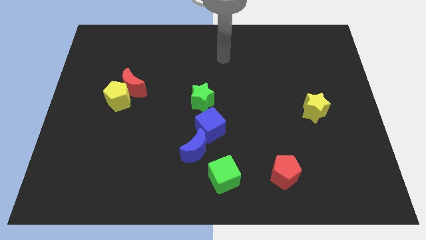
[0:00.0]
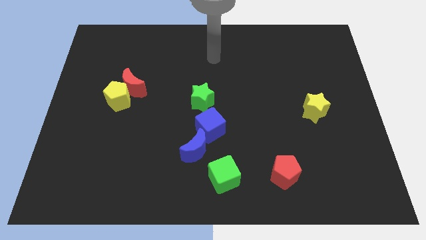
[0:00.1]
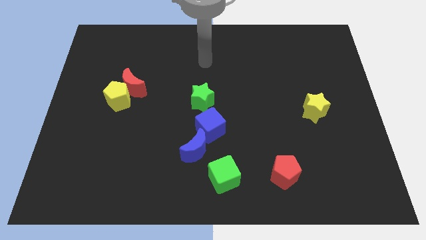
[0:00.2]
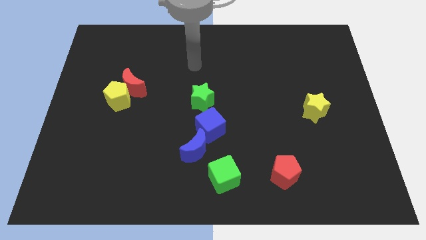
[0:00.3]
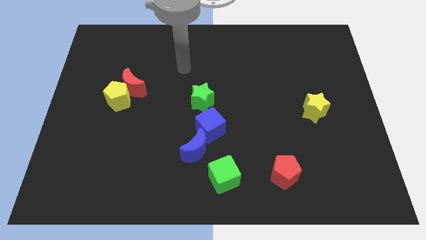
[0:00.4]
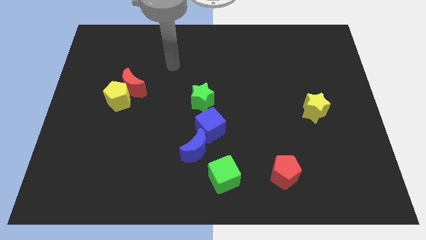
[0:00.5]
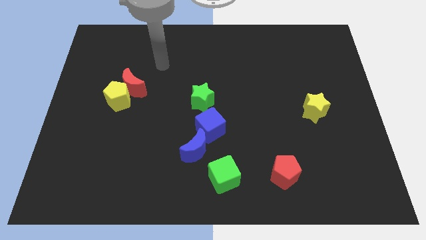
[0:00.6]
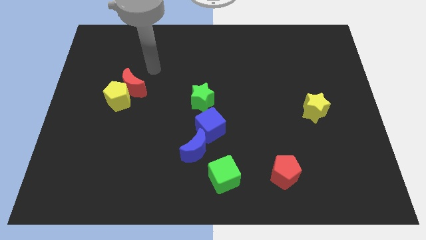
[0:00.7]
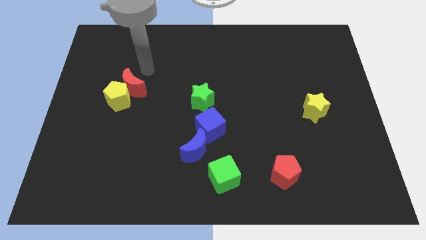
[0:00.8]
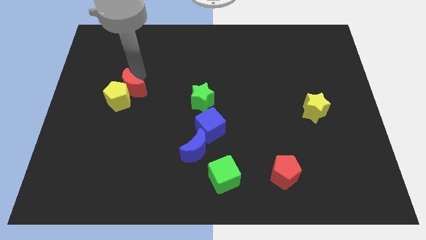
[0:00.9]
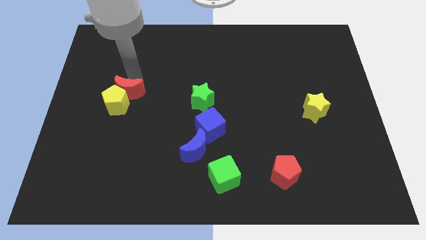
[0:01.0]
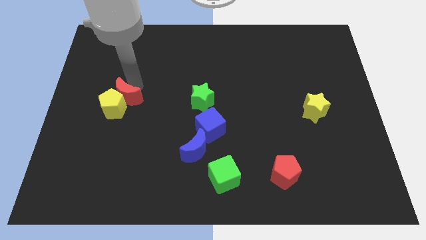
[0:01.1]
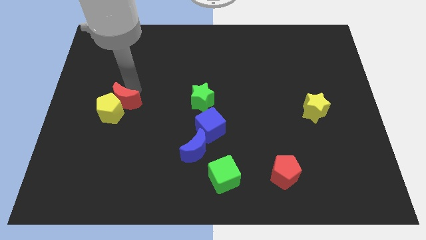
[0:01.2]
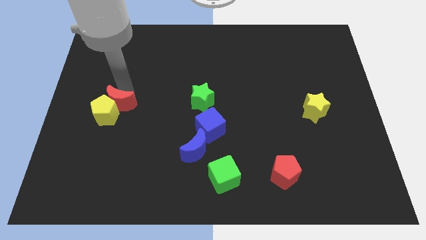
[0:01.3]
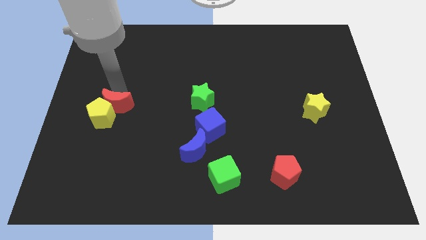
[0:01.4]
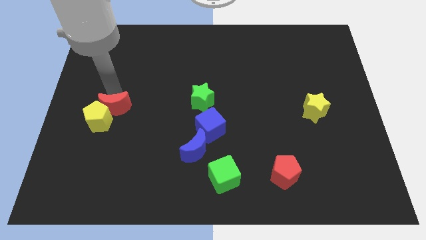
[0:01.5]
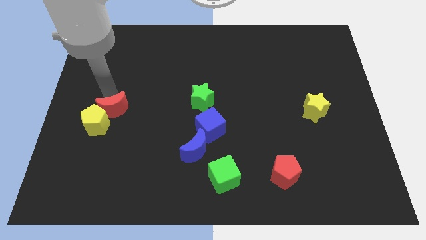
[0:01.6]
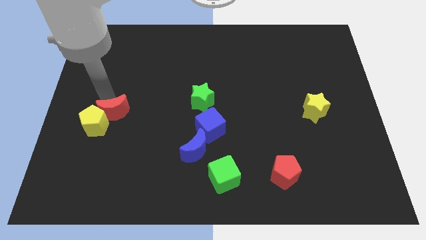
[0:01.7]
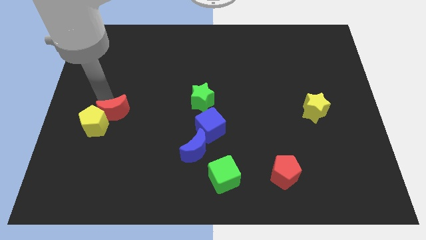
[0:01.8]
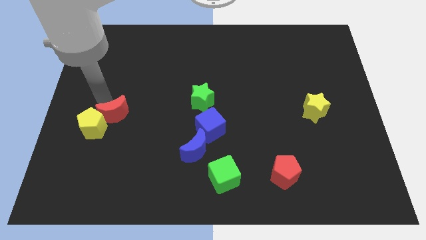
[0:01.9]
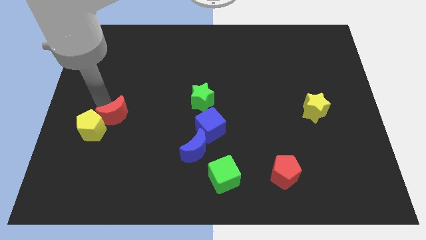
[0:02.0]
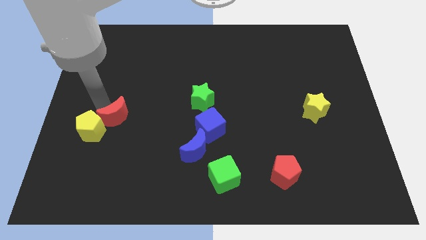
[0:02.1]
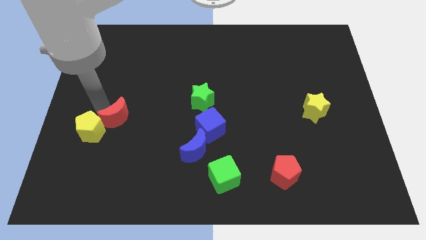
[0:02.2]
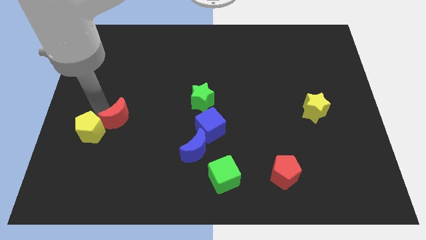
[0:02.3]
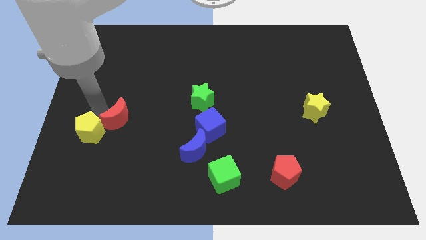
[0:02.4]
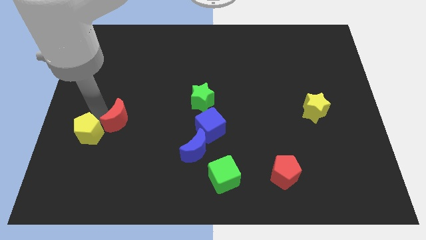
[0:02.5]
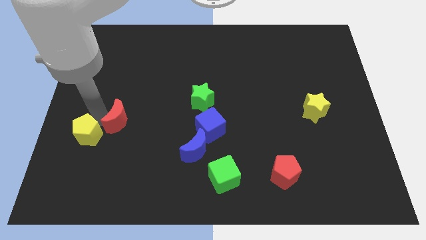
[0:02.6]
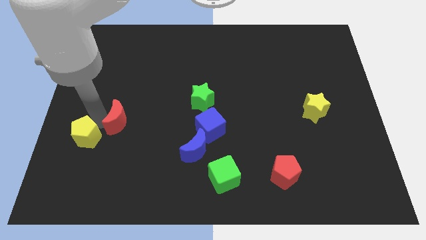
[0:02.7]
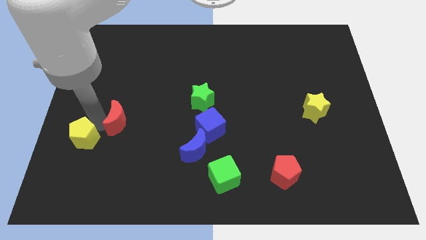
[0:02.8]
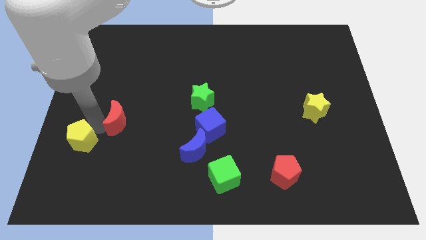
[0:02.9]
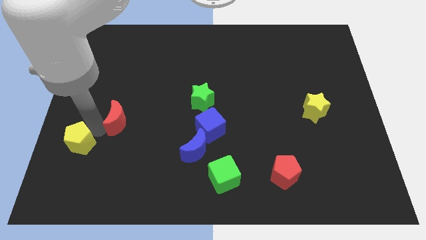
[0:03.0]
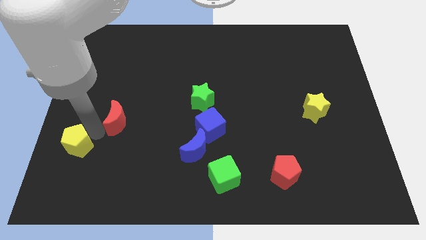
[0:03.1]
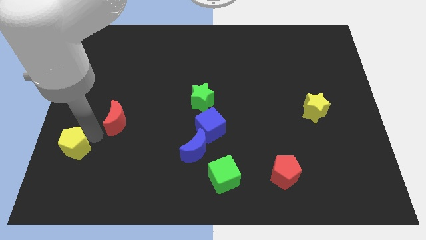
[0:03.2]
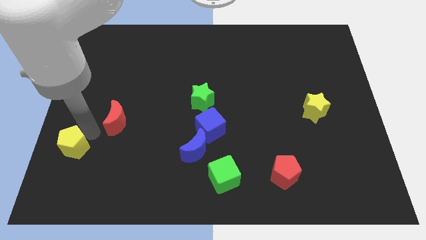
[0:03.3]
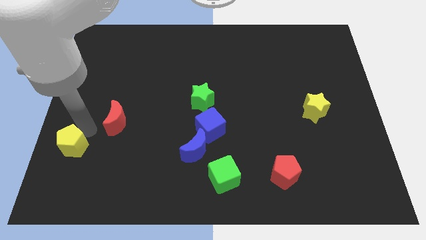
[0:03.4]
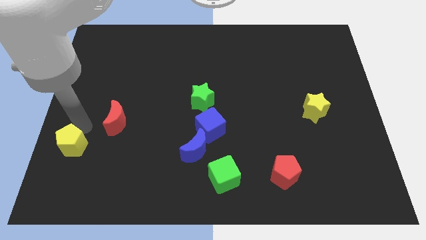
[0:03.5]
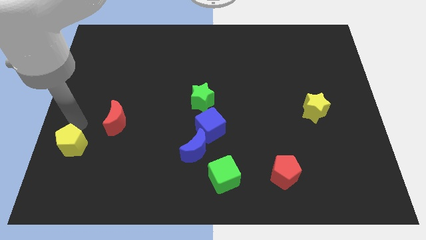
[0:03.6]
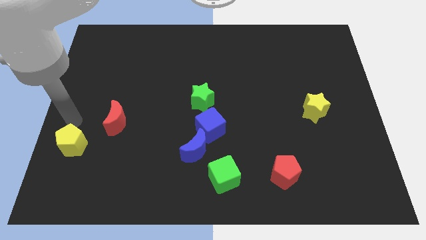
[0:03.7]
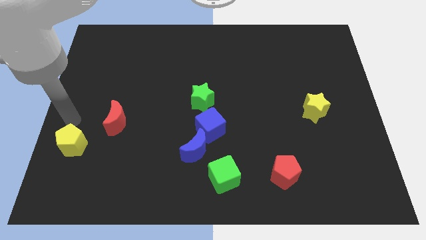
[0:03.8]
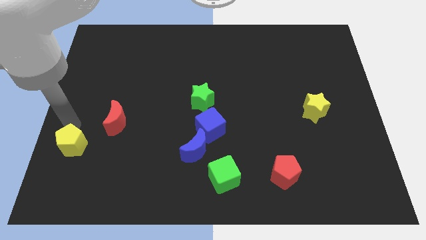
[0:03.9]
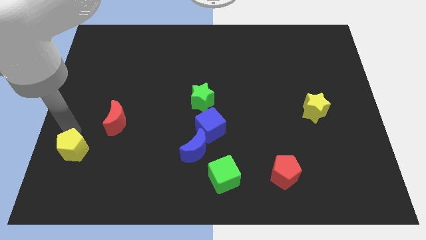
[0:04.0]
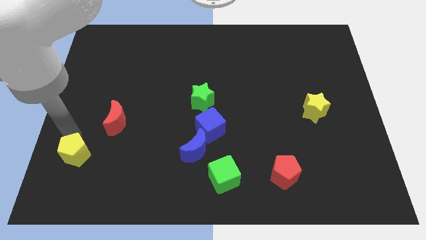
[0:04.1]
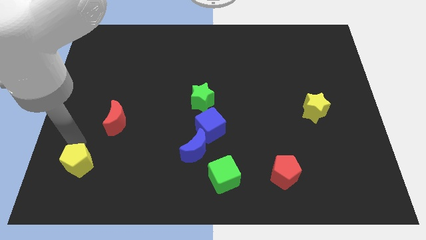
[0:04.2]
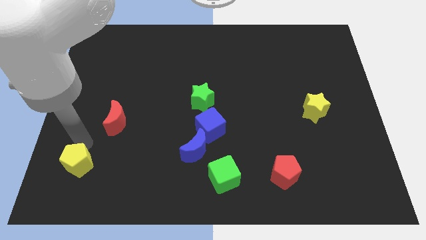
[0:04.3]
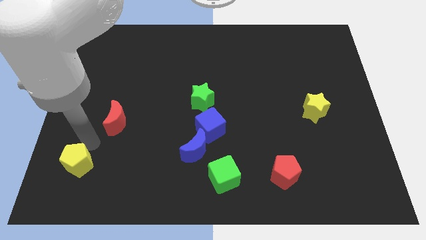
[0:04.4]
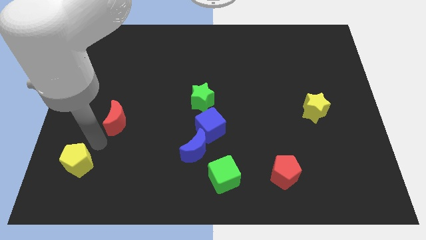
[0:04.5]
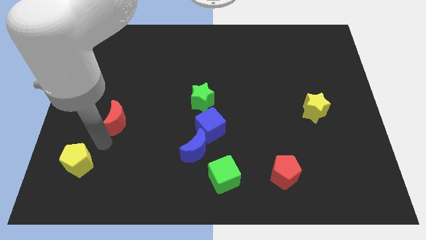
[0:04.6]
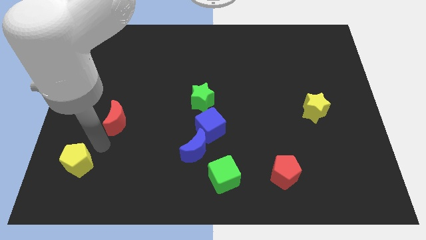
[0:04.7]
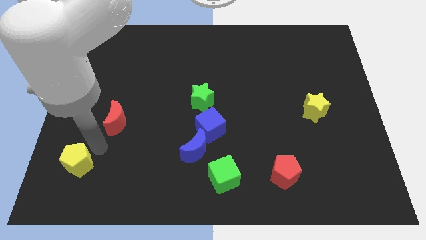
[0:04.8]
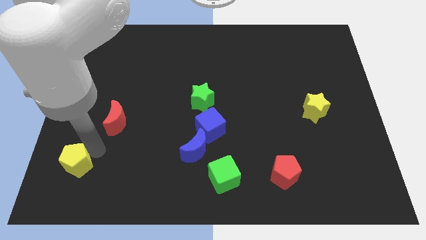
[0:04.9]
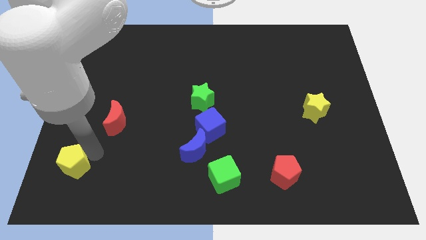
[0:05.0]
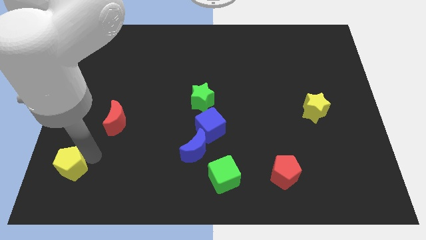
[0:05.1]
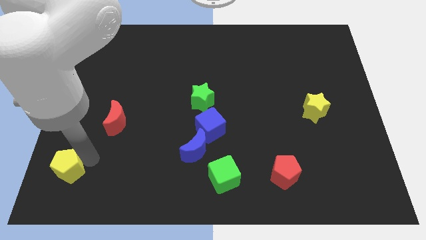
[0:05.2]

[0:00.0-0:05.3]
move the yellow pentagon to the bottom left of the board
